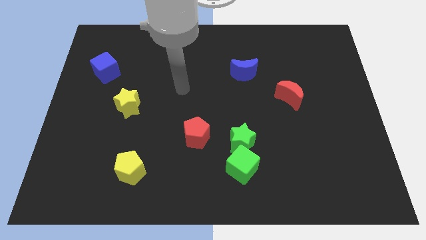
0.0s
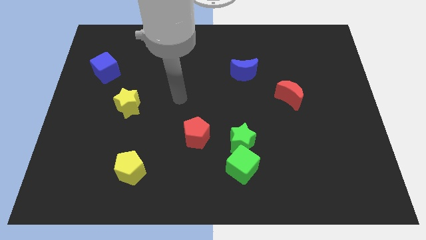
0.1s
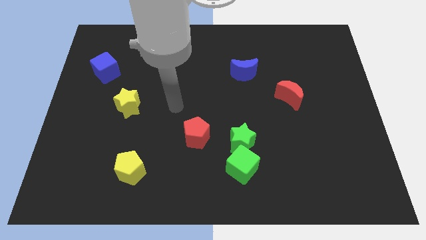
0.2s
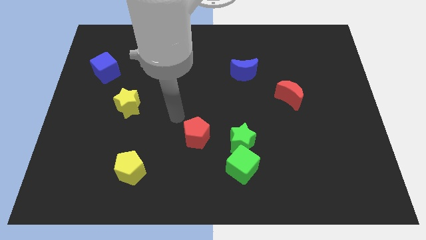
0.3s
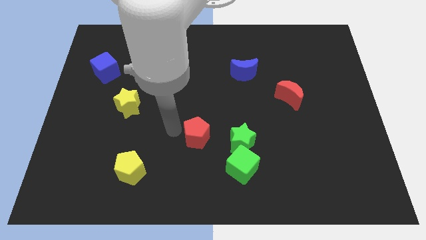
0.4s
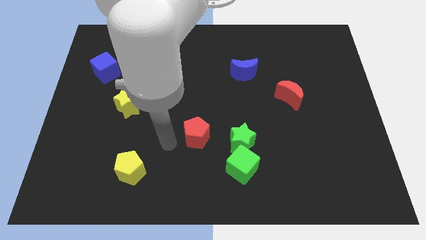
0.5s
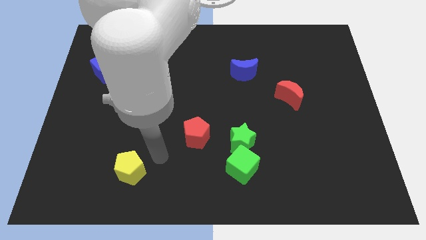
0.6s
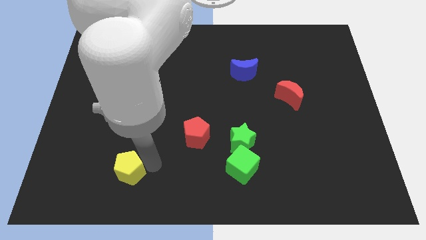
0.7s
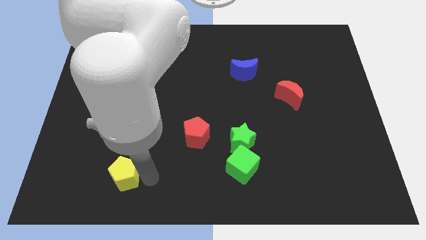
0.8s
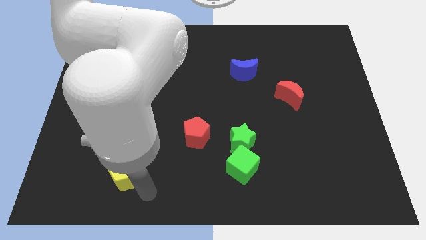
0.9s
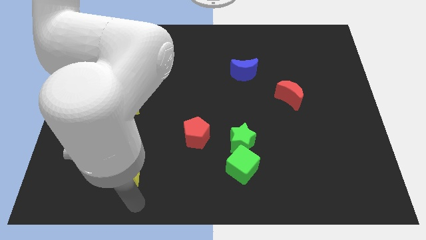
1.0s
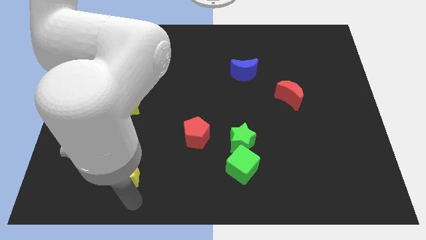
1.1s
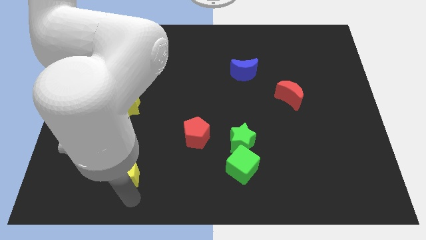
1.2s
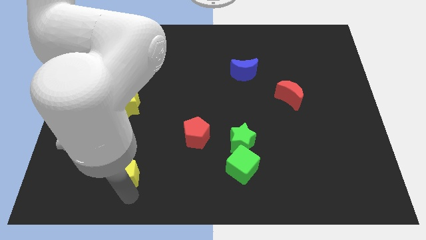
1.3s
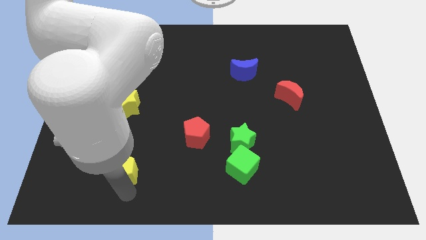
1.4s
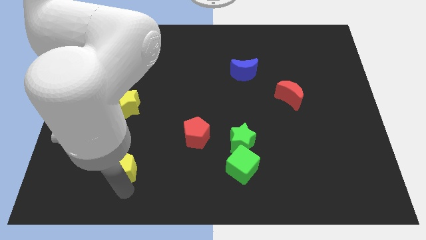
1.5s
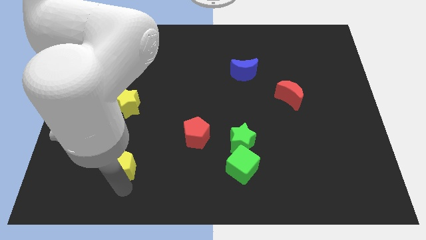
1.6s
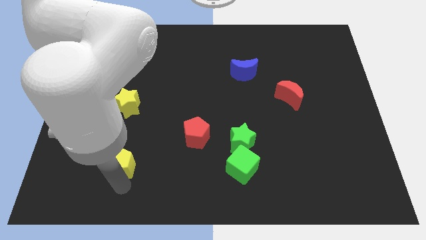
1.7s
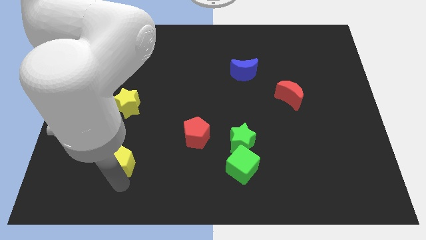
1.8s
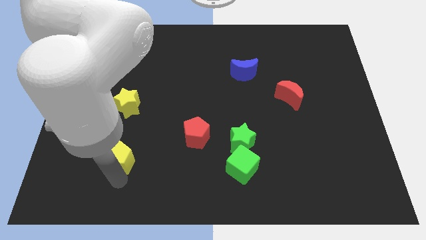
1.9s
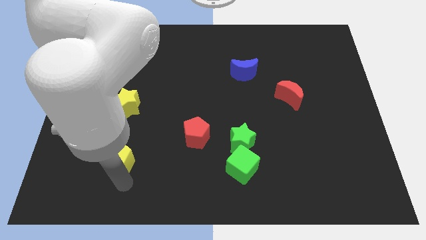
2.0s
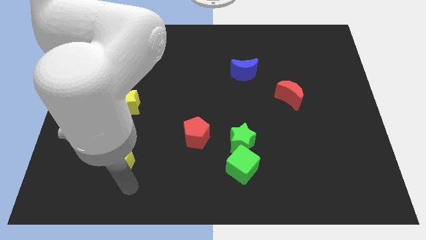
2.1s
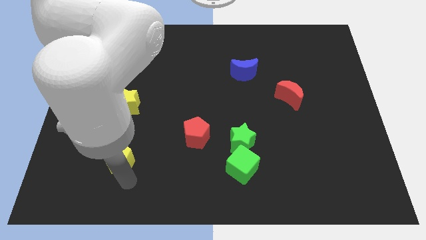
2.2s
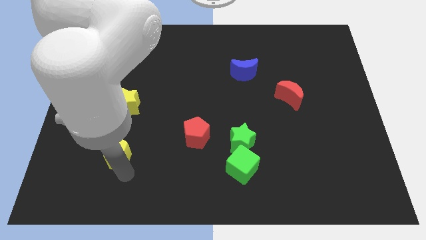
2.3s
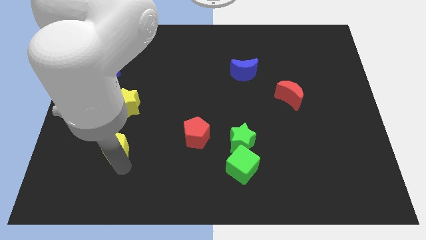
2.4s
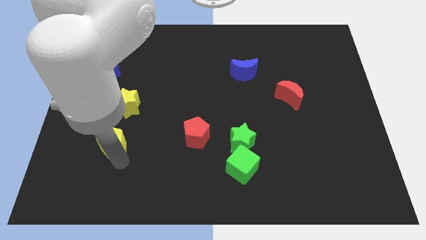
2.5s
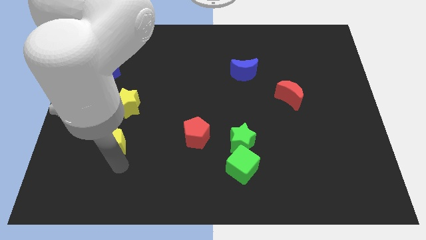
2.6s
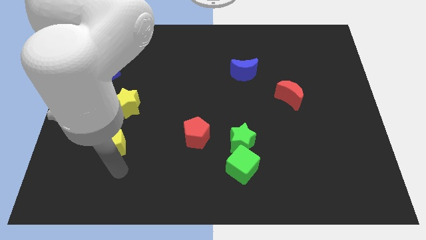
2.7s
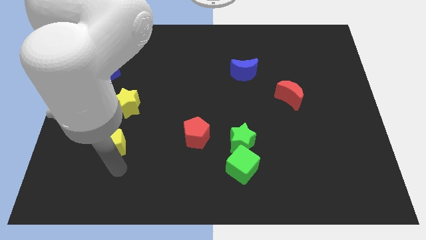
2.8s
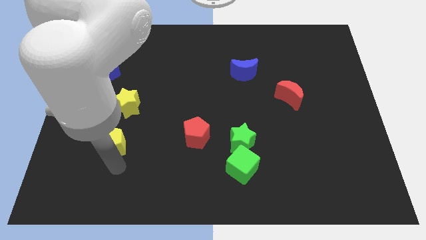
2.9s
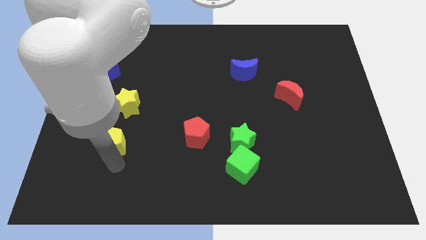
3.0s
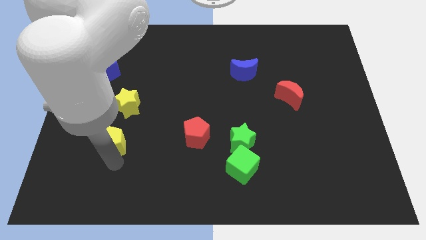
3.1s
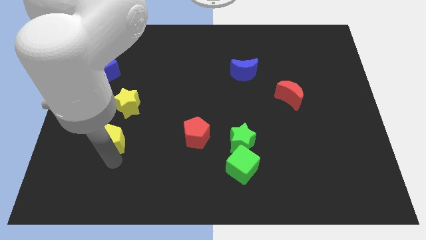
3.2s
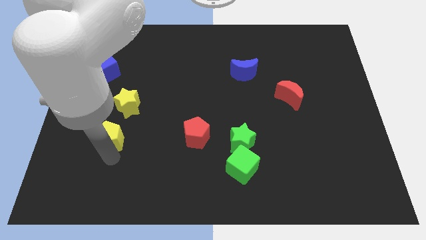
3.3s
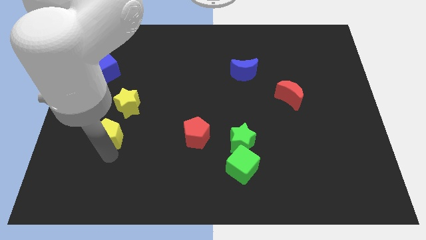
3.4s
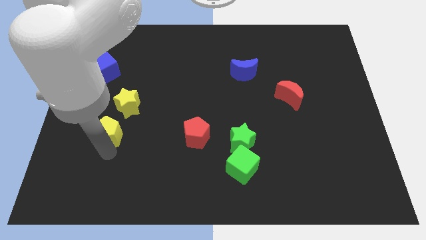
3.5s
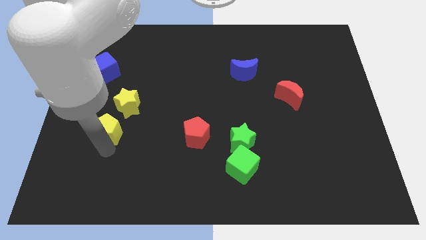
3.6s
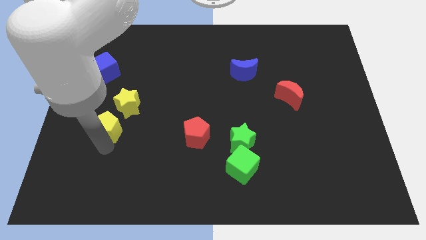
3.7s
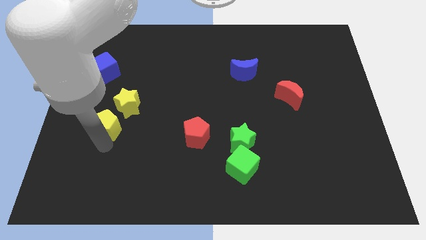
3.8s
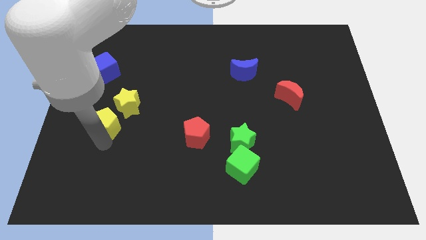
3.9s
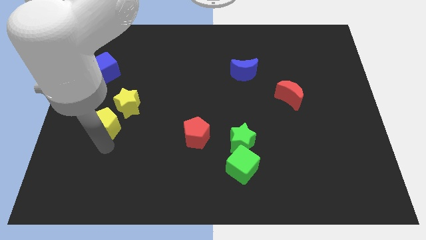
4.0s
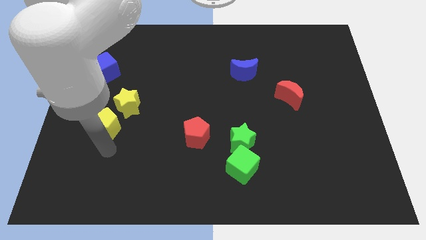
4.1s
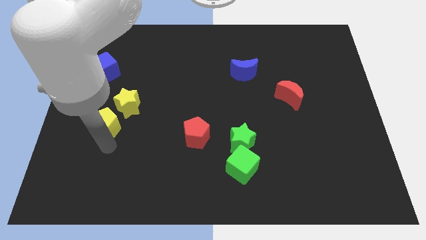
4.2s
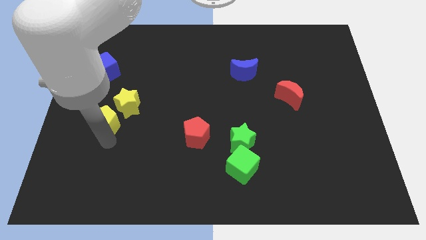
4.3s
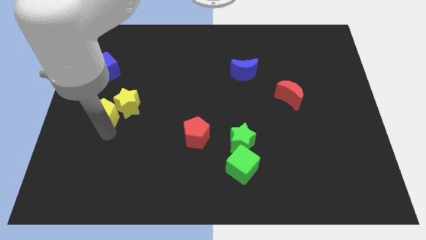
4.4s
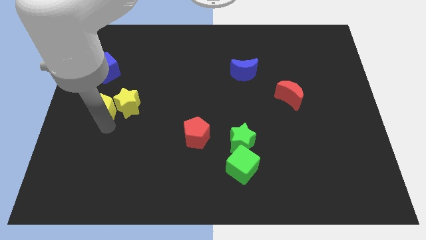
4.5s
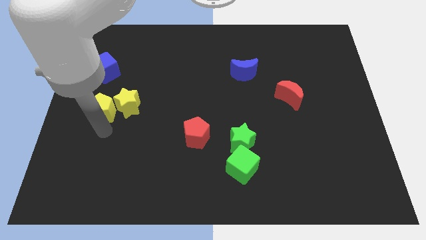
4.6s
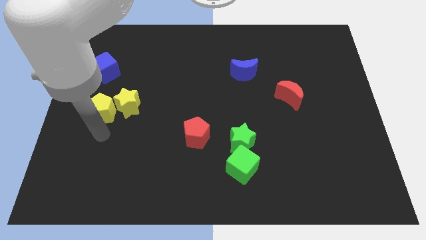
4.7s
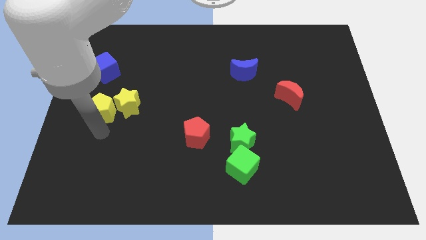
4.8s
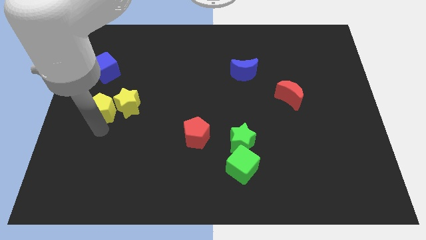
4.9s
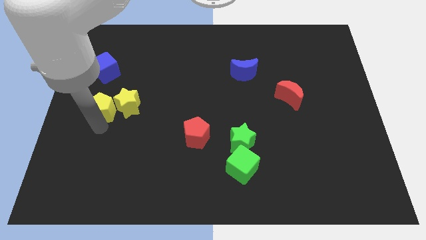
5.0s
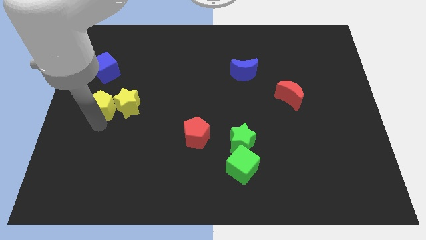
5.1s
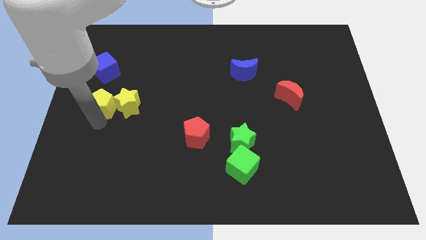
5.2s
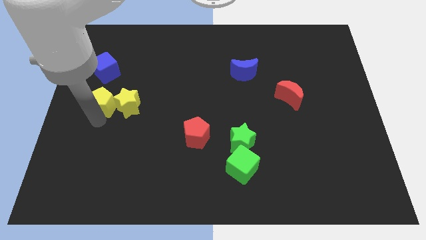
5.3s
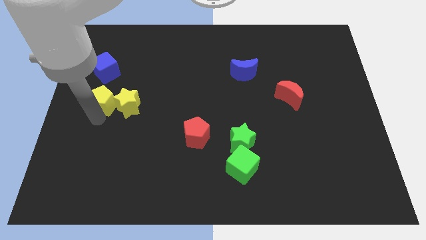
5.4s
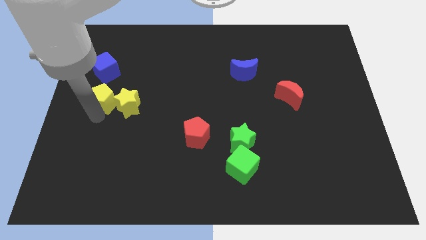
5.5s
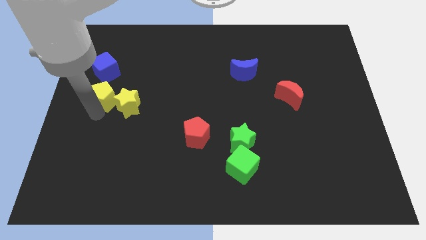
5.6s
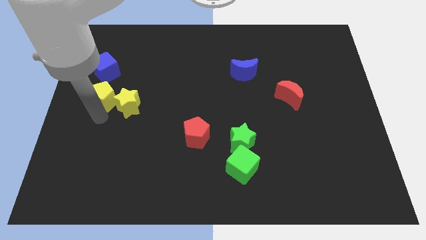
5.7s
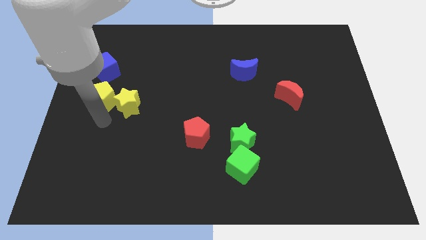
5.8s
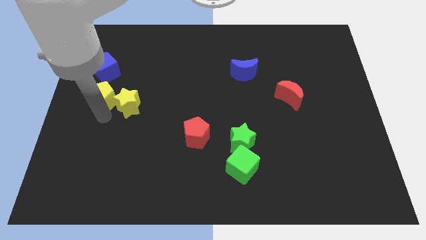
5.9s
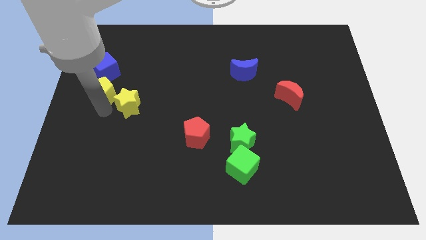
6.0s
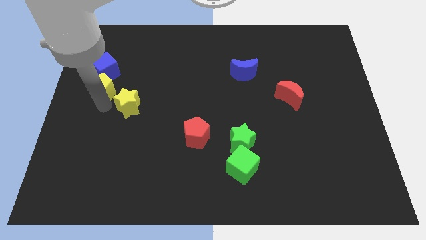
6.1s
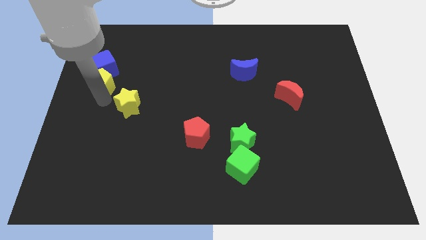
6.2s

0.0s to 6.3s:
push the yellow pentagon close to the blue cube

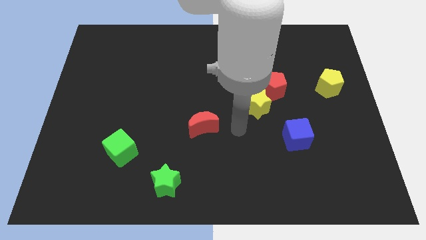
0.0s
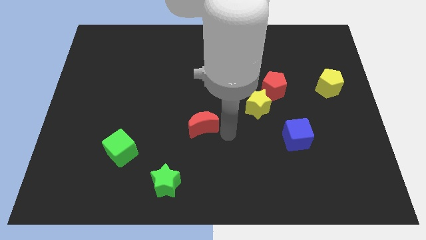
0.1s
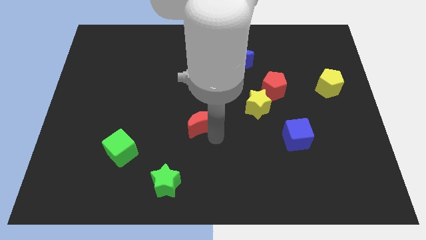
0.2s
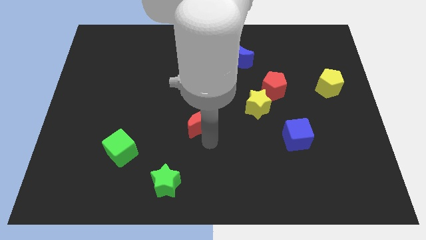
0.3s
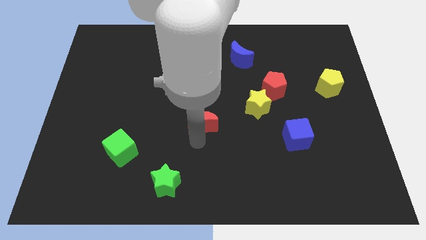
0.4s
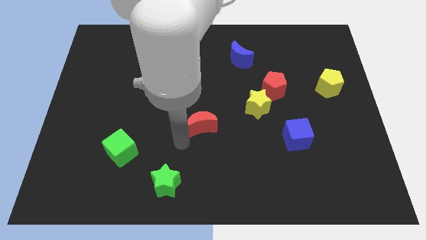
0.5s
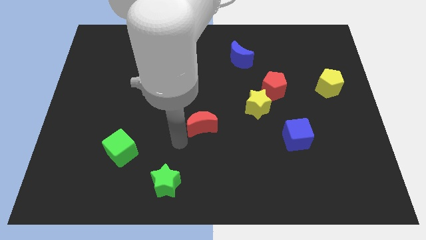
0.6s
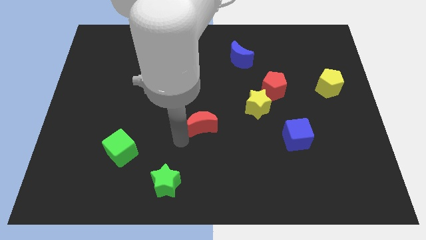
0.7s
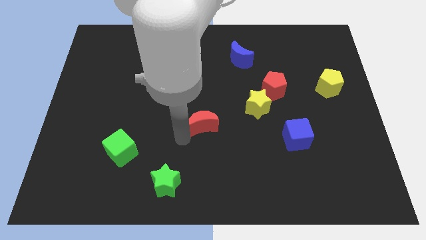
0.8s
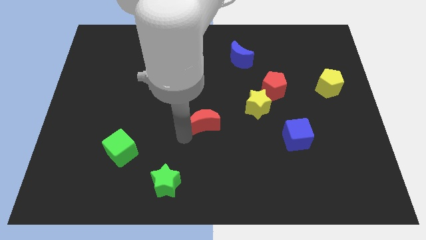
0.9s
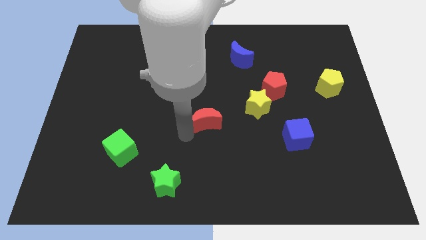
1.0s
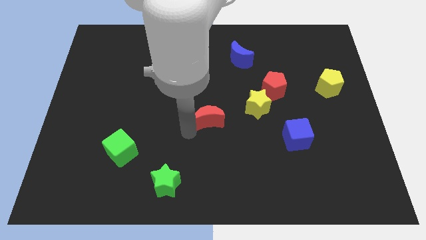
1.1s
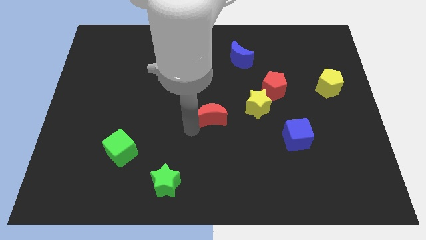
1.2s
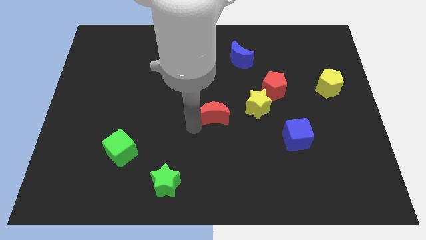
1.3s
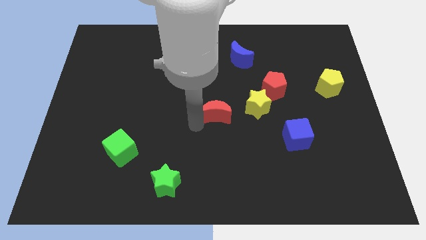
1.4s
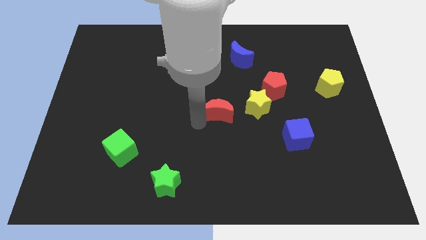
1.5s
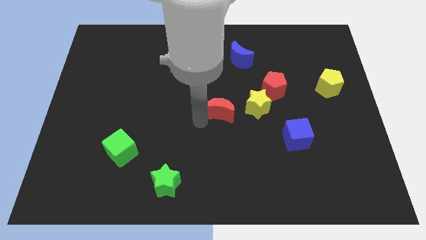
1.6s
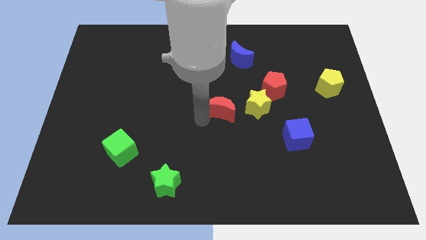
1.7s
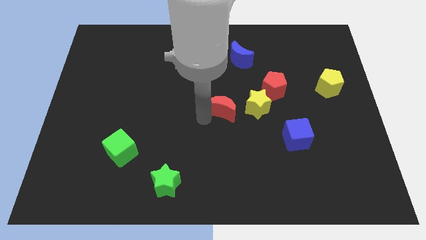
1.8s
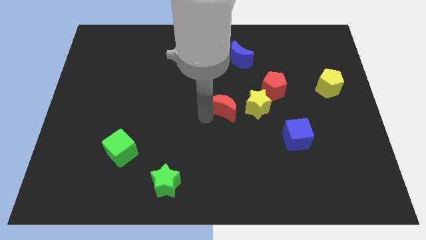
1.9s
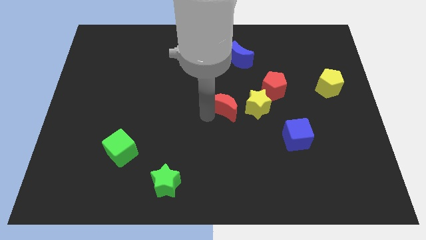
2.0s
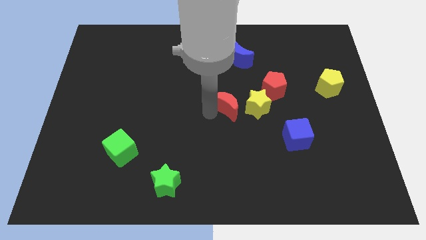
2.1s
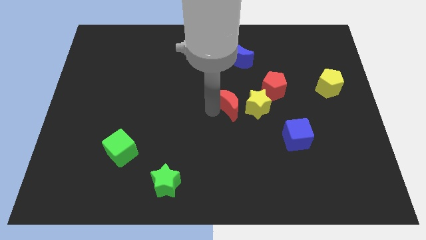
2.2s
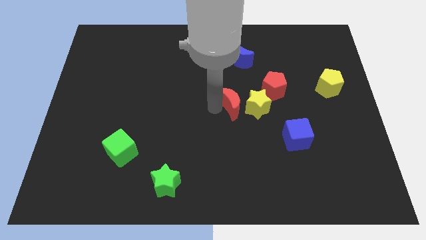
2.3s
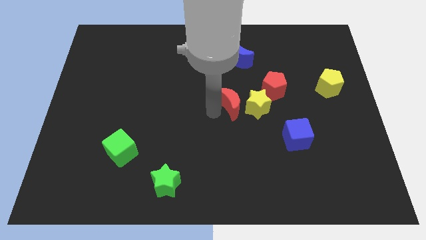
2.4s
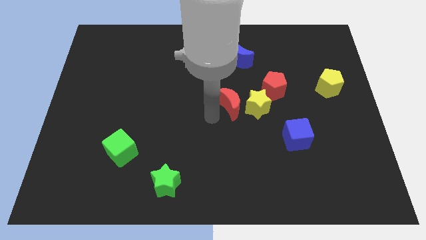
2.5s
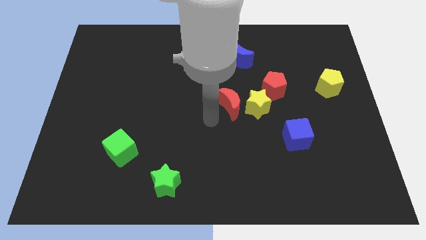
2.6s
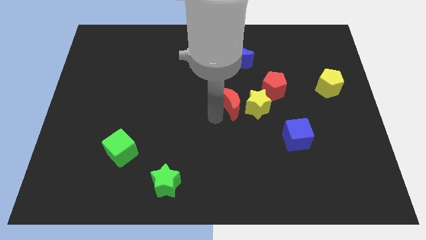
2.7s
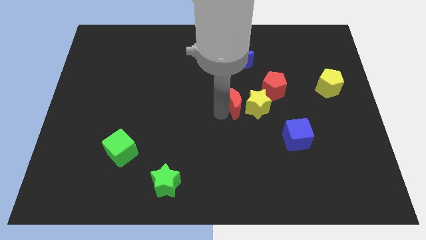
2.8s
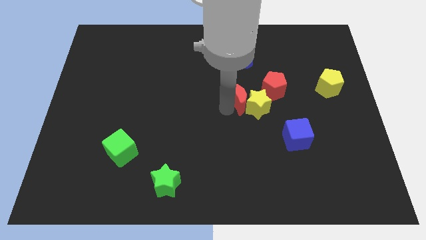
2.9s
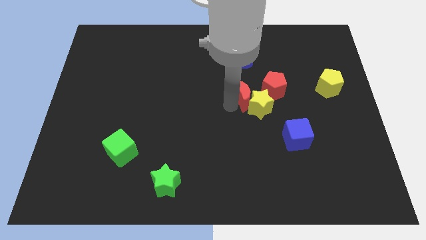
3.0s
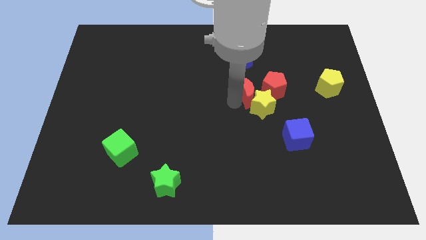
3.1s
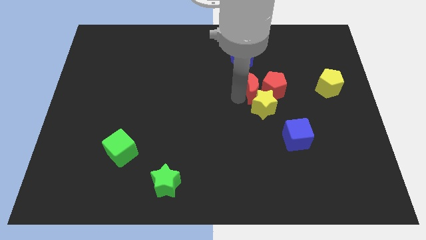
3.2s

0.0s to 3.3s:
push the red moon to the red pentagon
